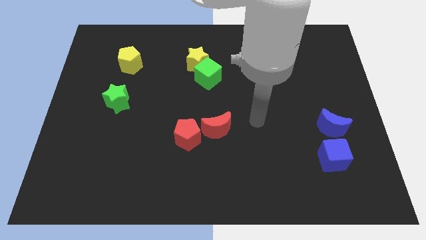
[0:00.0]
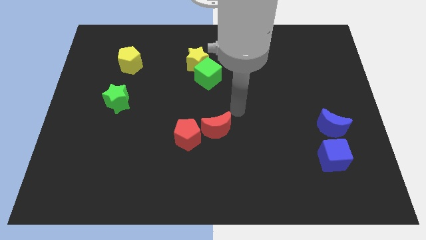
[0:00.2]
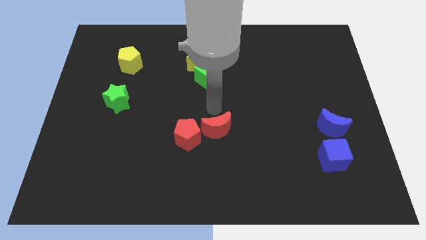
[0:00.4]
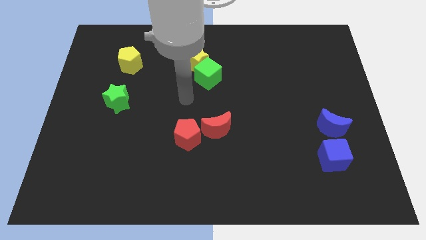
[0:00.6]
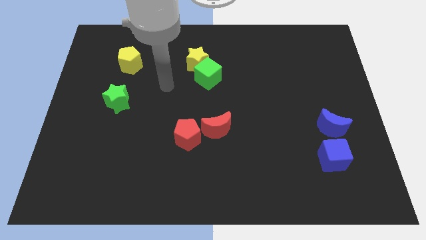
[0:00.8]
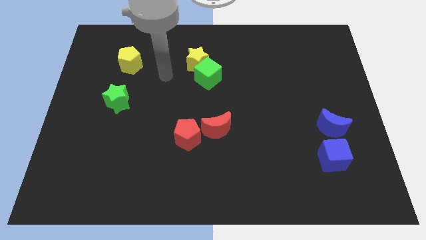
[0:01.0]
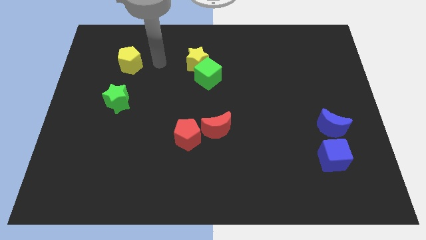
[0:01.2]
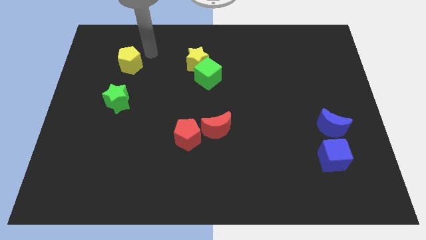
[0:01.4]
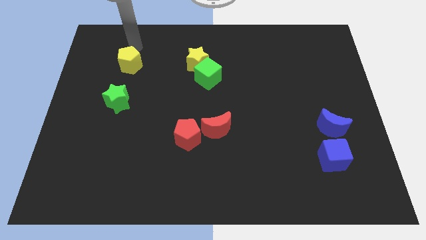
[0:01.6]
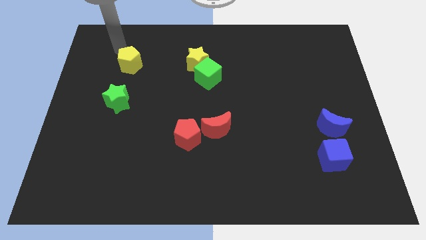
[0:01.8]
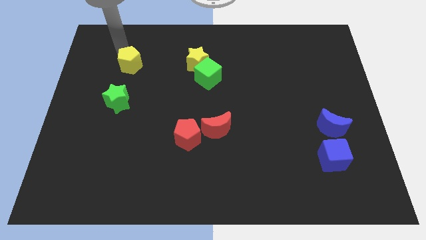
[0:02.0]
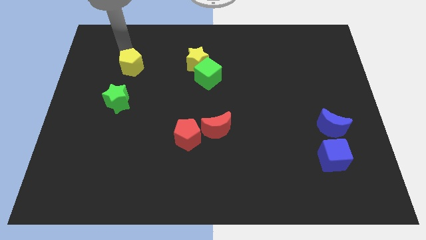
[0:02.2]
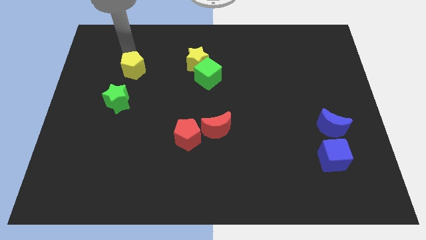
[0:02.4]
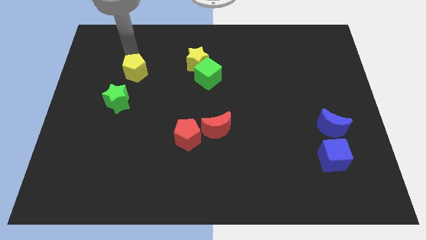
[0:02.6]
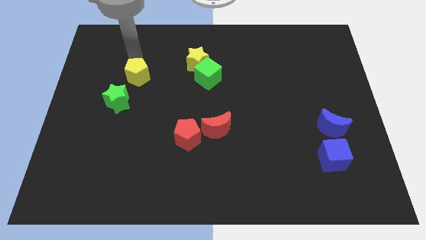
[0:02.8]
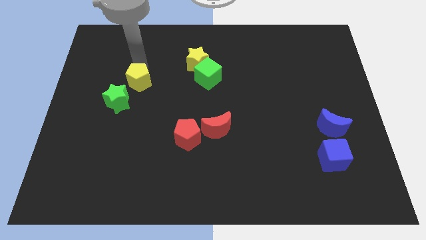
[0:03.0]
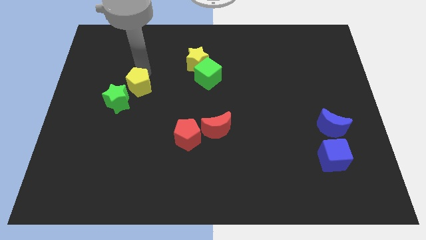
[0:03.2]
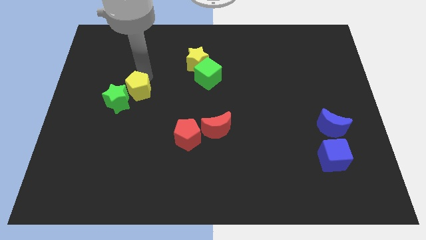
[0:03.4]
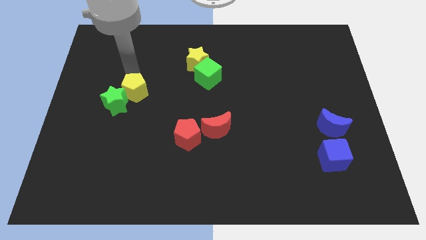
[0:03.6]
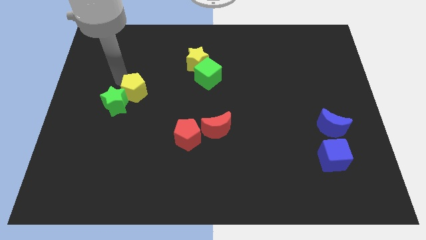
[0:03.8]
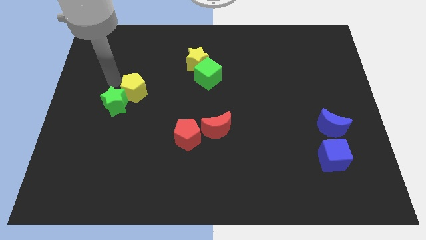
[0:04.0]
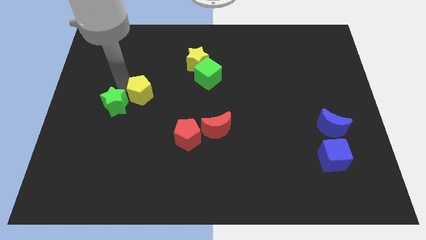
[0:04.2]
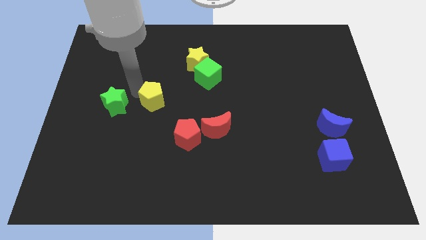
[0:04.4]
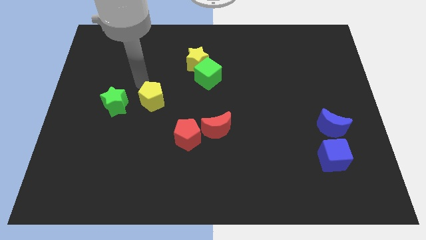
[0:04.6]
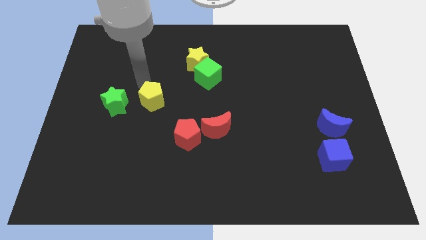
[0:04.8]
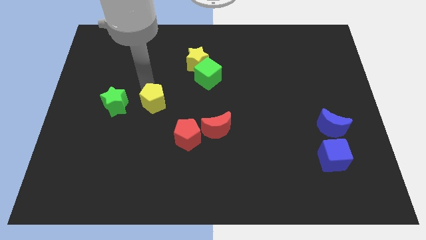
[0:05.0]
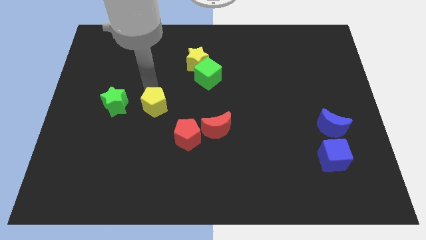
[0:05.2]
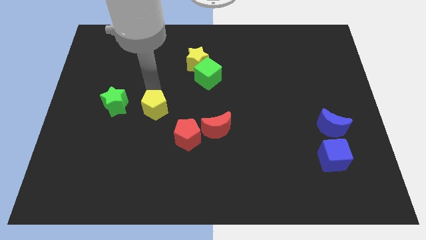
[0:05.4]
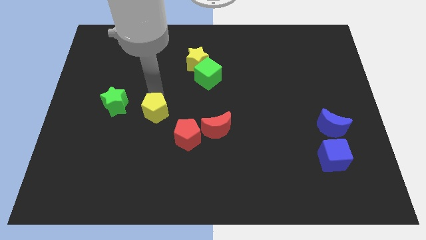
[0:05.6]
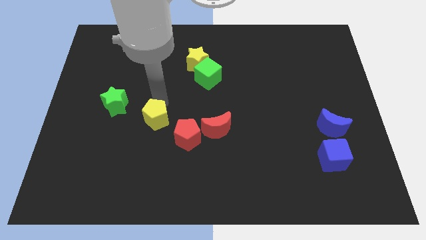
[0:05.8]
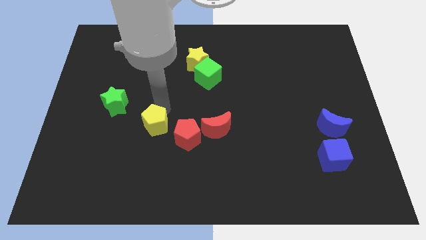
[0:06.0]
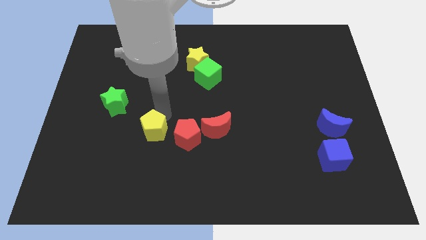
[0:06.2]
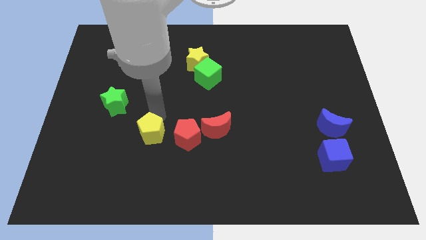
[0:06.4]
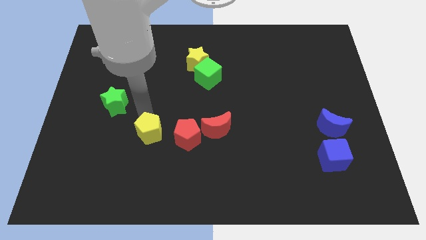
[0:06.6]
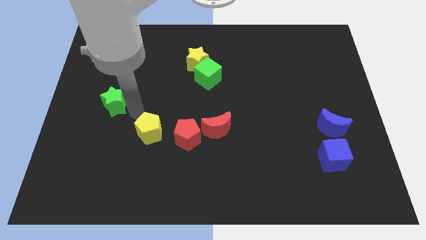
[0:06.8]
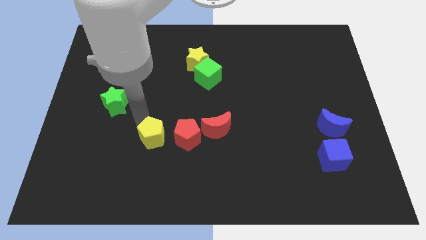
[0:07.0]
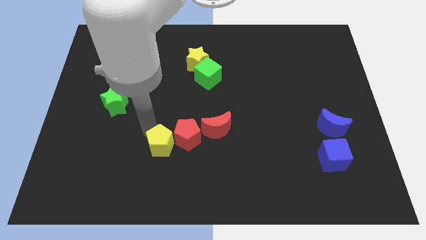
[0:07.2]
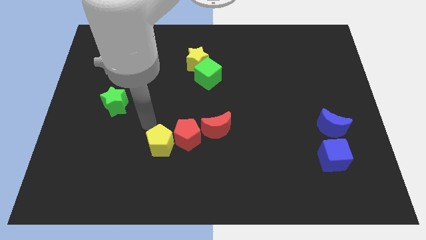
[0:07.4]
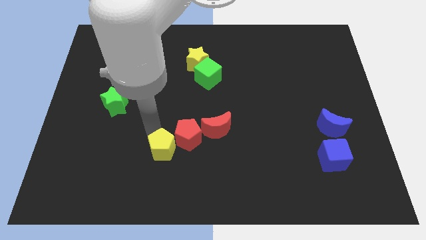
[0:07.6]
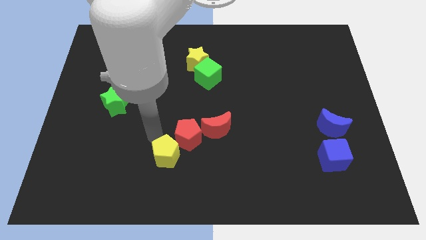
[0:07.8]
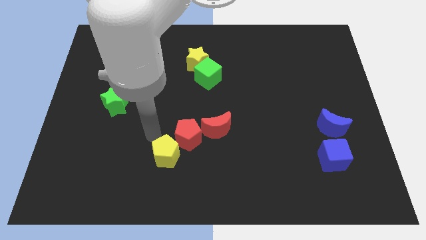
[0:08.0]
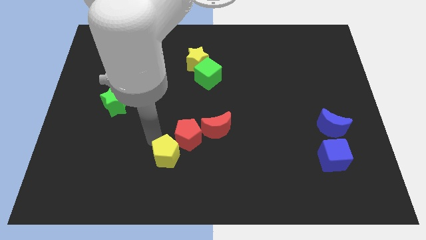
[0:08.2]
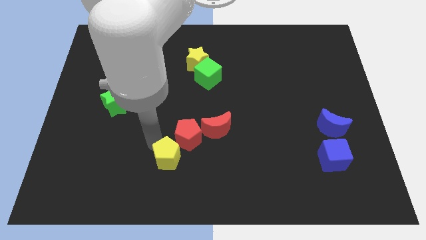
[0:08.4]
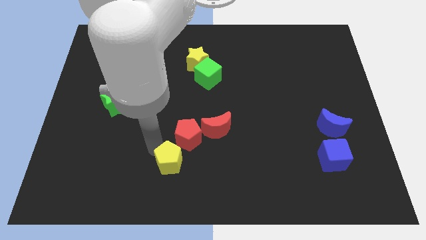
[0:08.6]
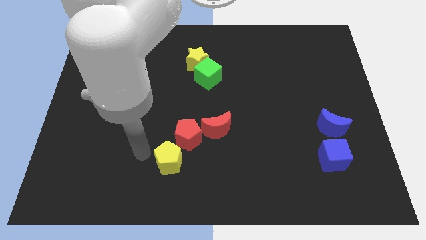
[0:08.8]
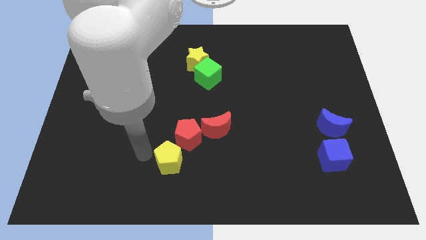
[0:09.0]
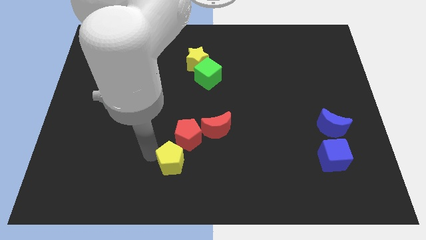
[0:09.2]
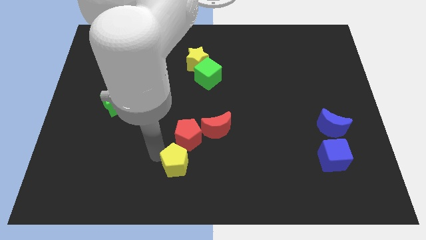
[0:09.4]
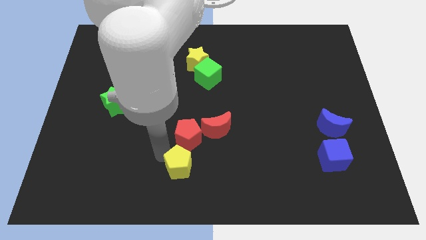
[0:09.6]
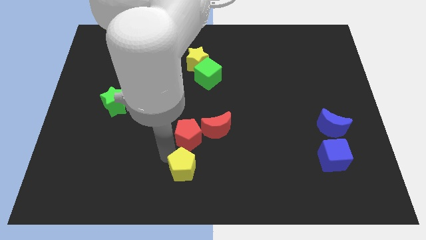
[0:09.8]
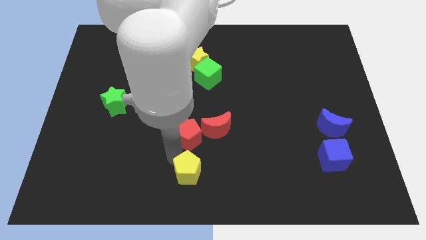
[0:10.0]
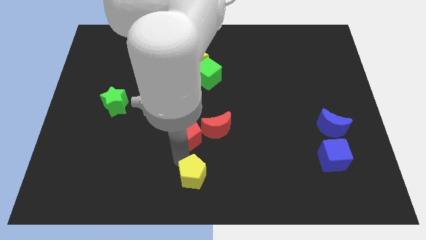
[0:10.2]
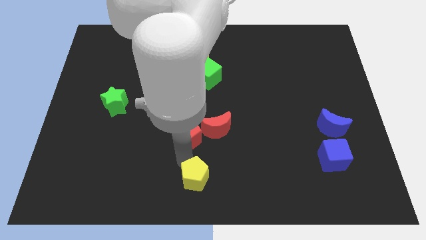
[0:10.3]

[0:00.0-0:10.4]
move the yellow pentagon to the bottom of the red moon

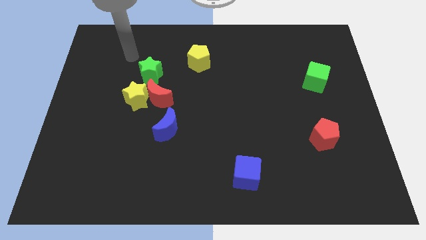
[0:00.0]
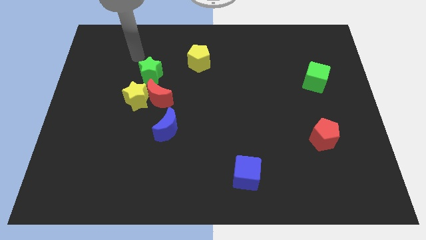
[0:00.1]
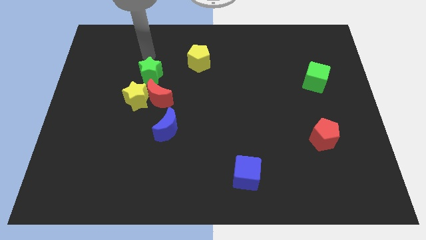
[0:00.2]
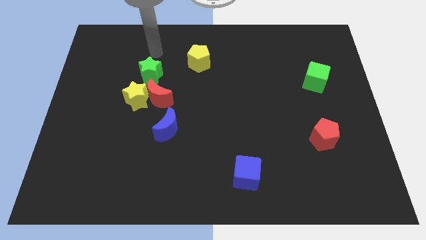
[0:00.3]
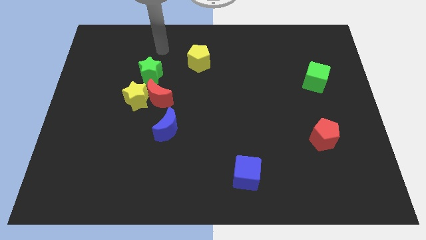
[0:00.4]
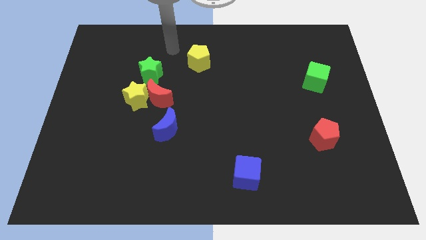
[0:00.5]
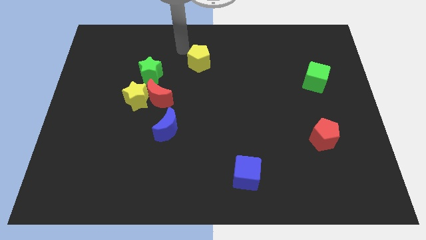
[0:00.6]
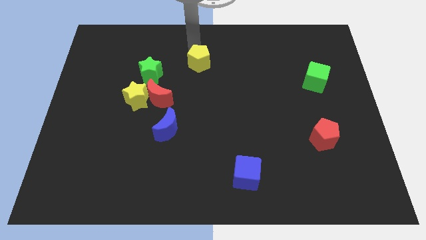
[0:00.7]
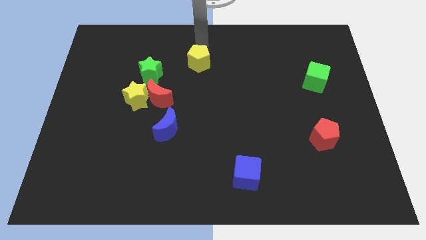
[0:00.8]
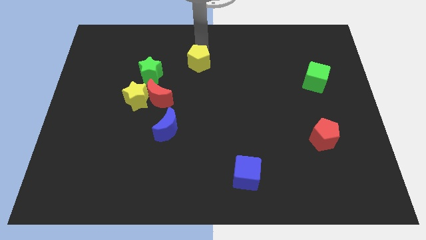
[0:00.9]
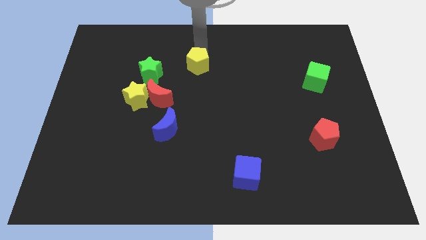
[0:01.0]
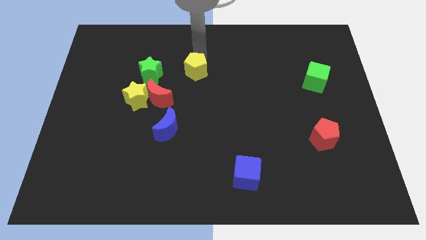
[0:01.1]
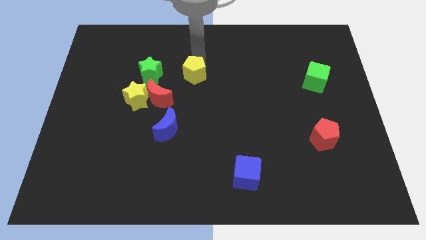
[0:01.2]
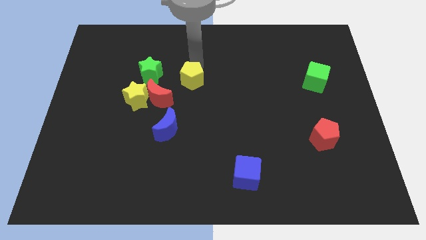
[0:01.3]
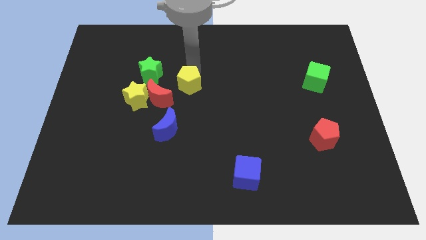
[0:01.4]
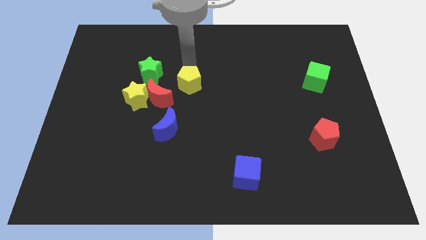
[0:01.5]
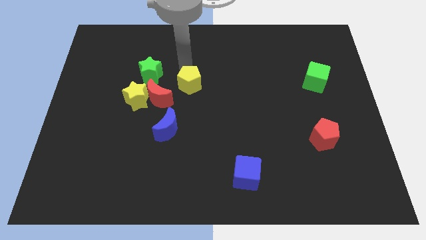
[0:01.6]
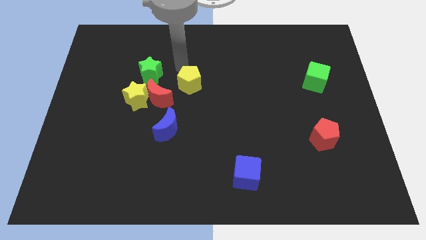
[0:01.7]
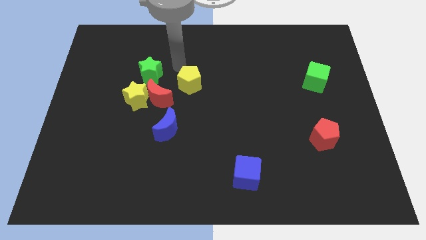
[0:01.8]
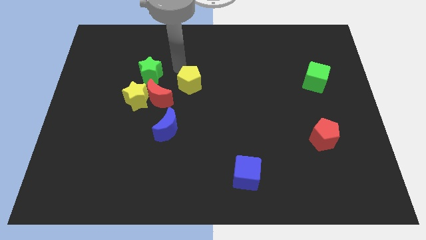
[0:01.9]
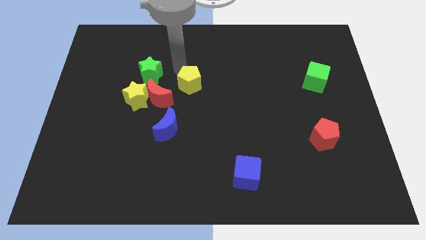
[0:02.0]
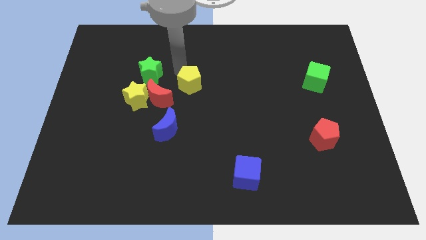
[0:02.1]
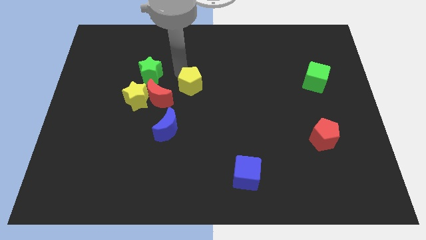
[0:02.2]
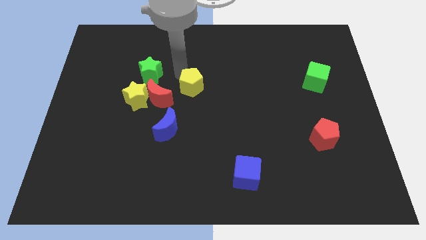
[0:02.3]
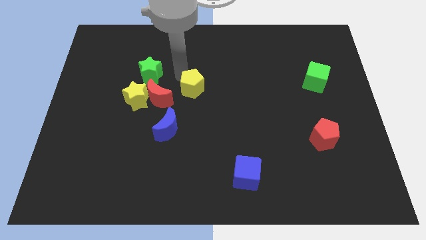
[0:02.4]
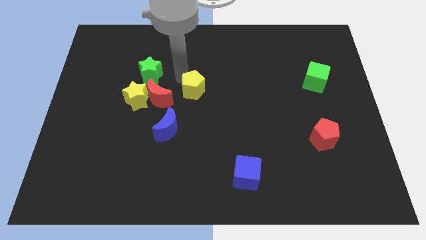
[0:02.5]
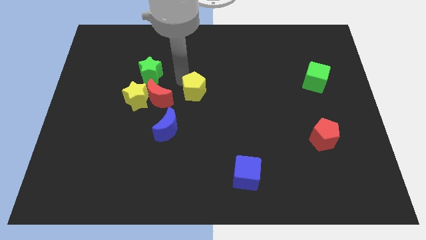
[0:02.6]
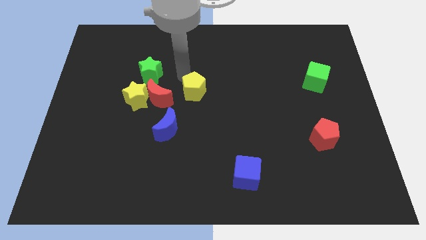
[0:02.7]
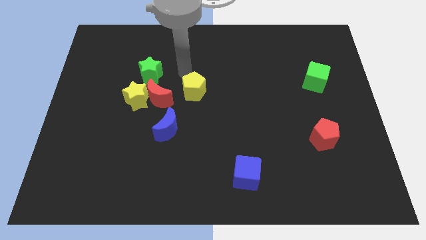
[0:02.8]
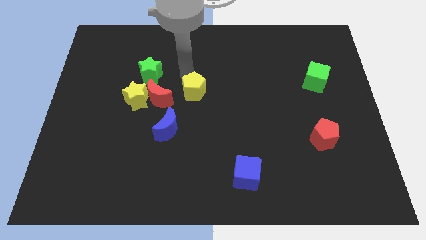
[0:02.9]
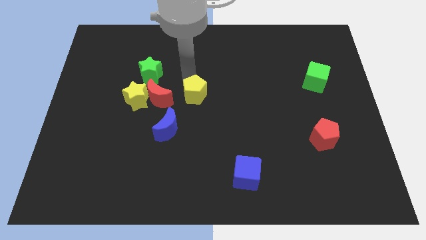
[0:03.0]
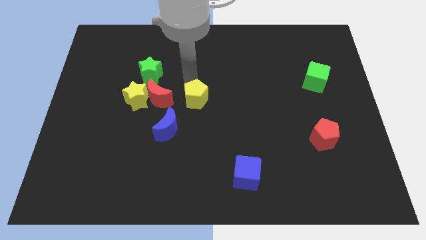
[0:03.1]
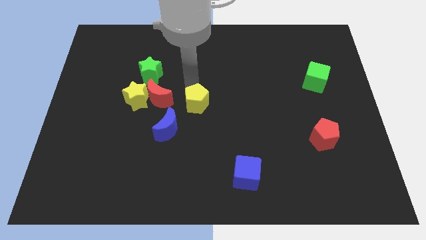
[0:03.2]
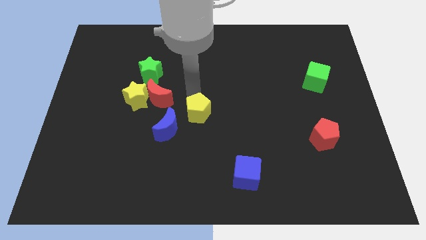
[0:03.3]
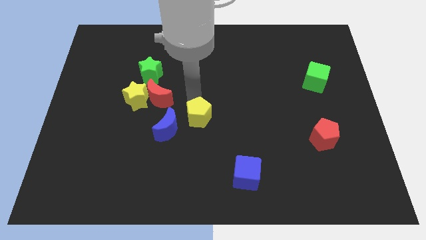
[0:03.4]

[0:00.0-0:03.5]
move the yellow pentagon just right of the blue moon
